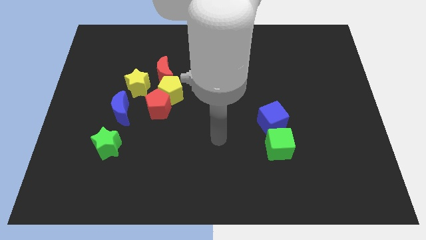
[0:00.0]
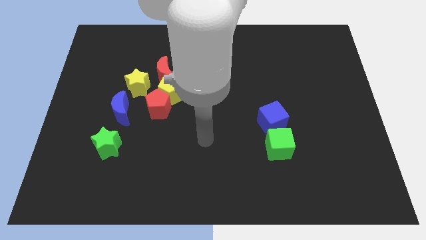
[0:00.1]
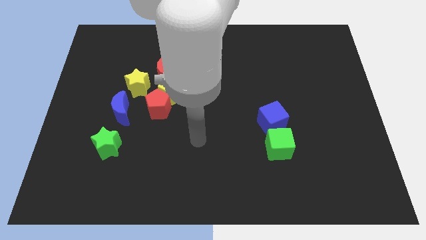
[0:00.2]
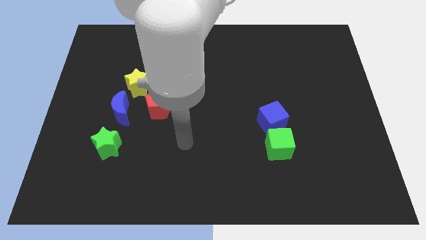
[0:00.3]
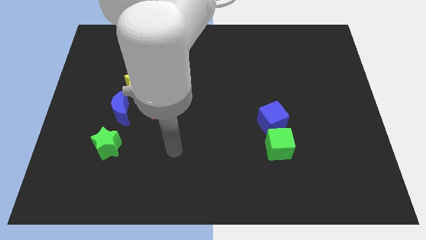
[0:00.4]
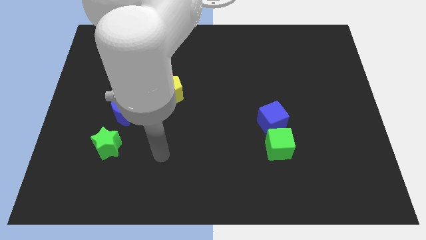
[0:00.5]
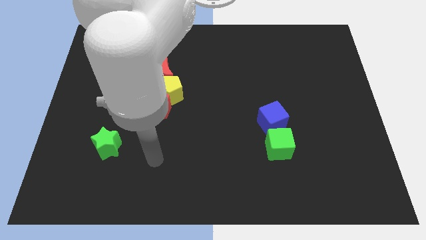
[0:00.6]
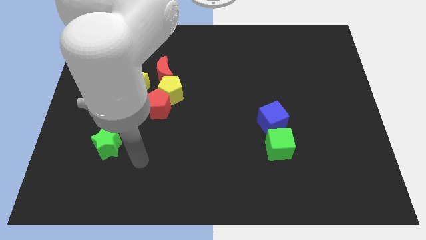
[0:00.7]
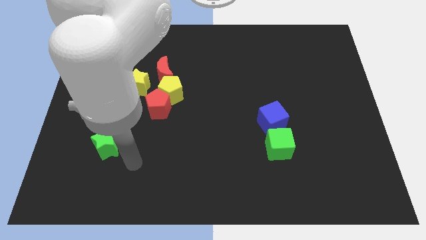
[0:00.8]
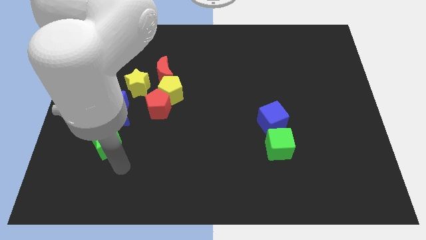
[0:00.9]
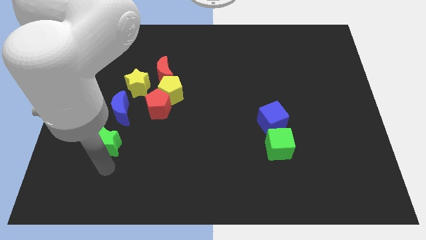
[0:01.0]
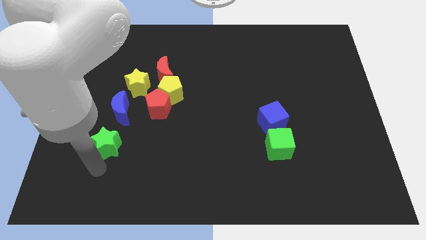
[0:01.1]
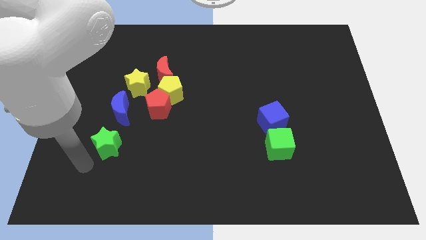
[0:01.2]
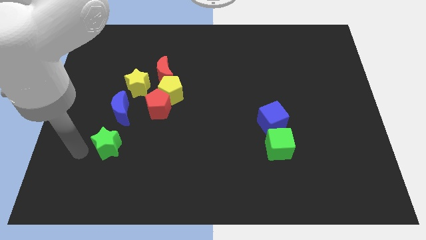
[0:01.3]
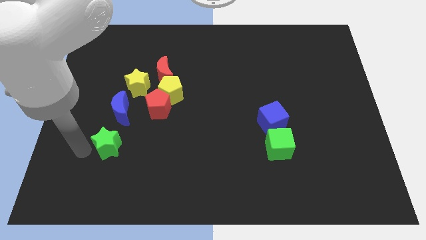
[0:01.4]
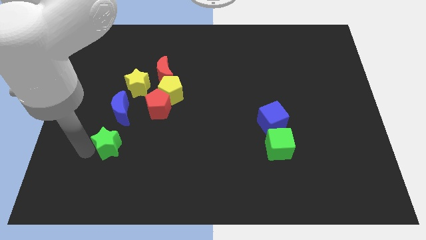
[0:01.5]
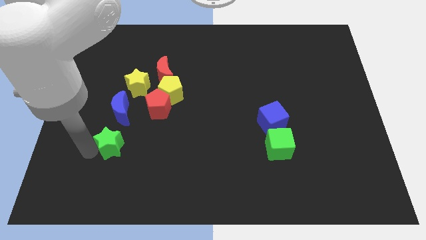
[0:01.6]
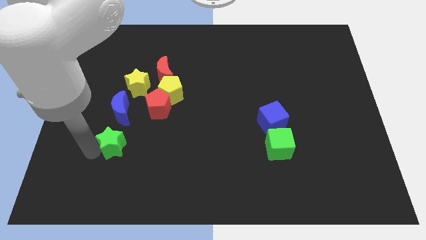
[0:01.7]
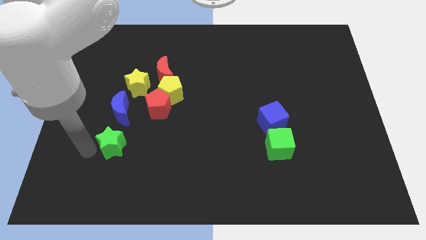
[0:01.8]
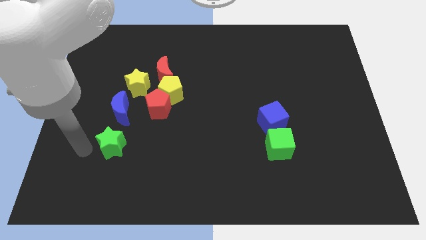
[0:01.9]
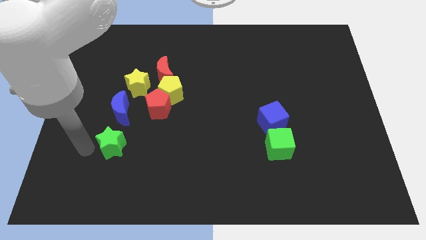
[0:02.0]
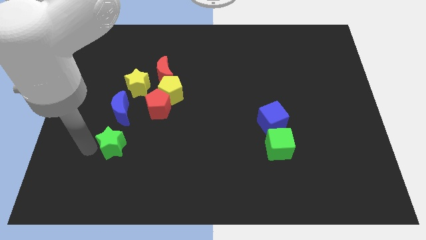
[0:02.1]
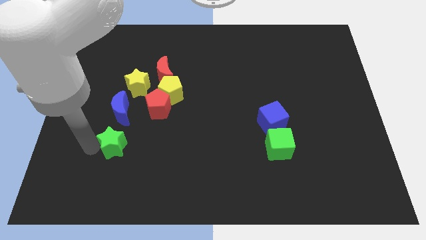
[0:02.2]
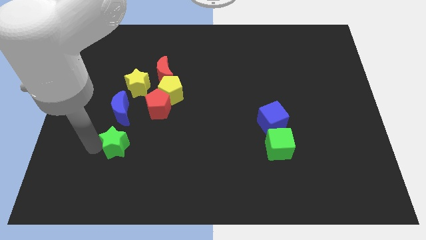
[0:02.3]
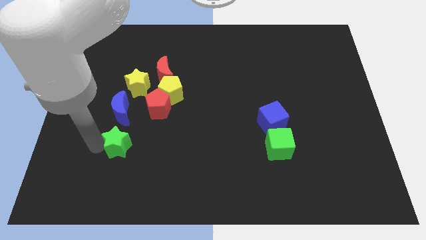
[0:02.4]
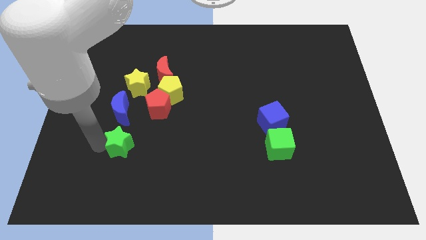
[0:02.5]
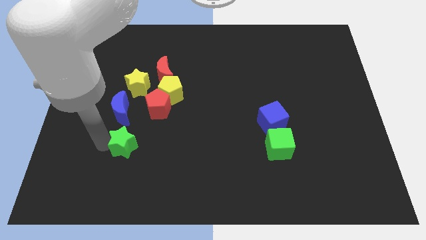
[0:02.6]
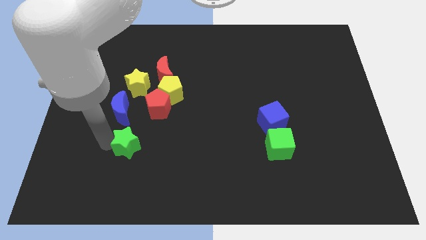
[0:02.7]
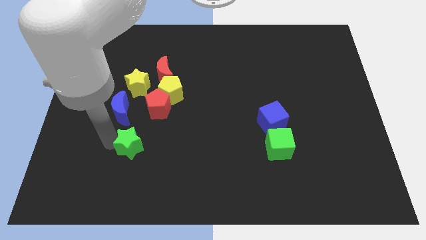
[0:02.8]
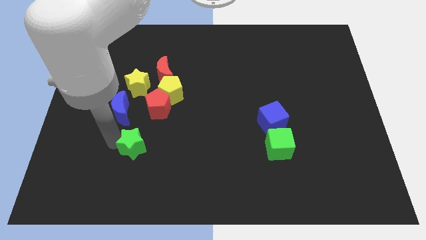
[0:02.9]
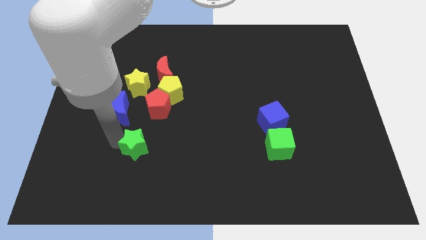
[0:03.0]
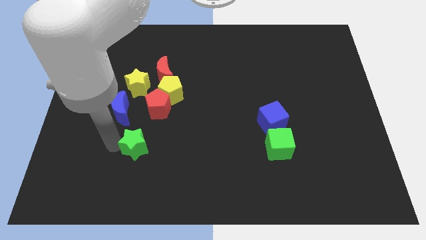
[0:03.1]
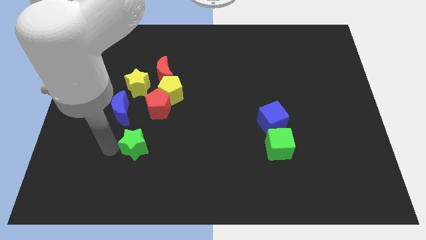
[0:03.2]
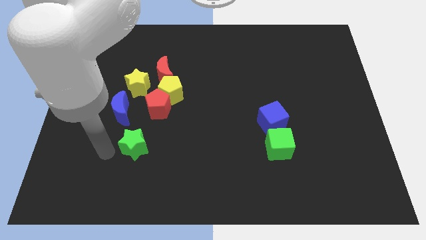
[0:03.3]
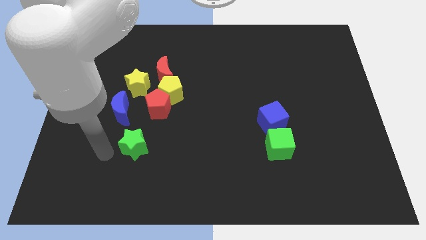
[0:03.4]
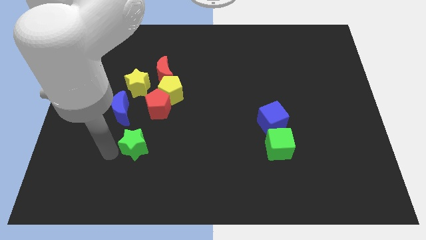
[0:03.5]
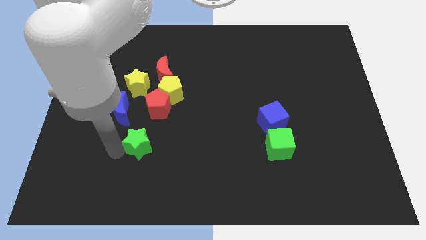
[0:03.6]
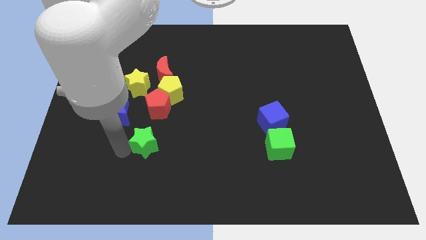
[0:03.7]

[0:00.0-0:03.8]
move the green star a little bit to the right

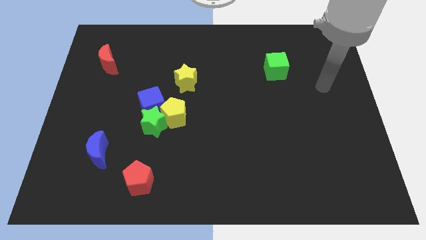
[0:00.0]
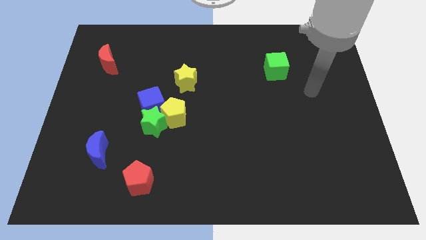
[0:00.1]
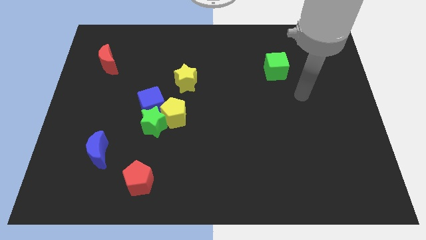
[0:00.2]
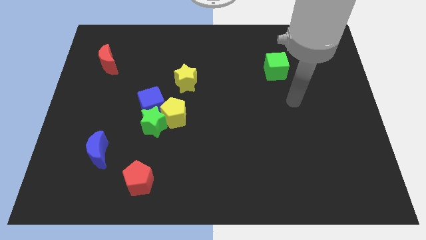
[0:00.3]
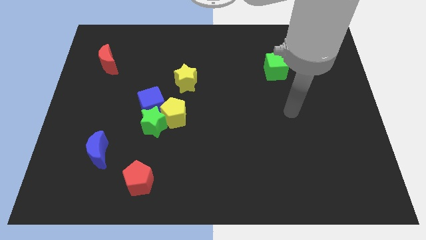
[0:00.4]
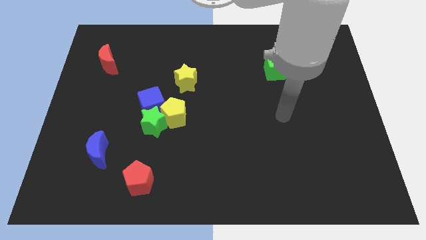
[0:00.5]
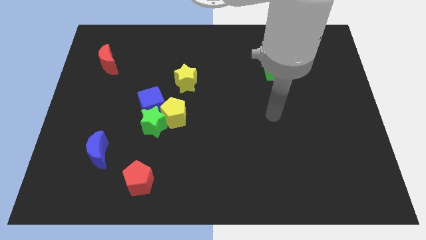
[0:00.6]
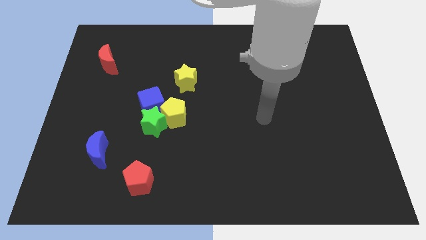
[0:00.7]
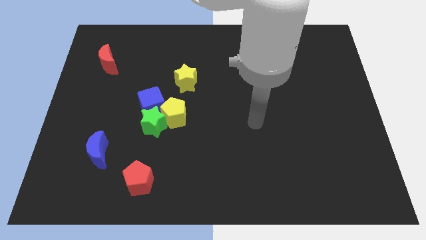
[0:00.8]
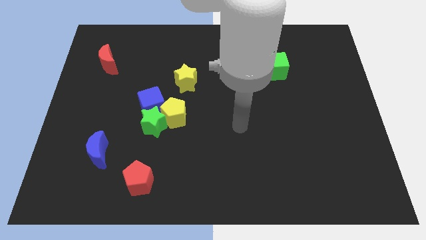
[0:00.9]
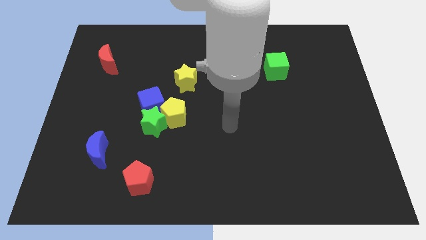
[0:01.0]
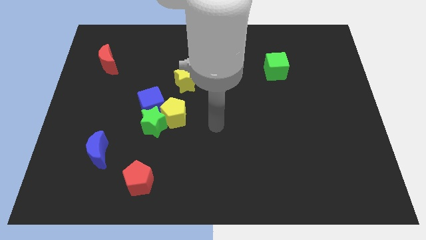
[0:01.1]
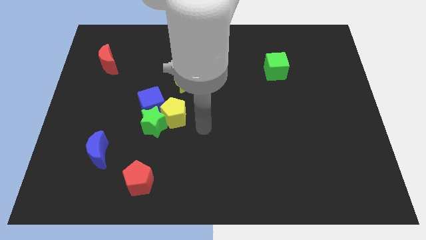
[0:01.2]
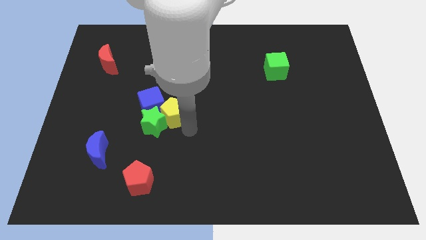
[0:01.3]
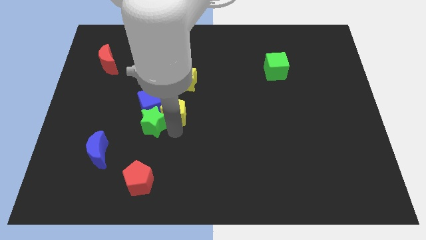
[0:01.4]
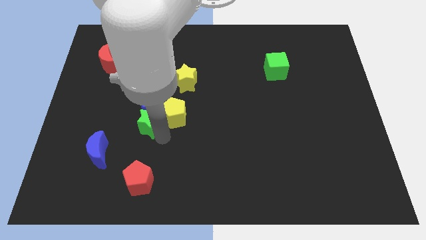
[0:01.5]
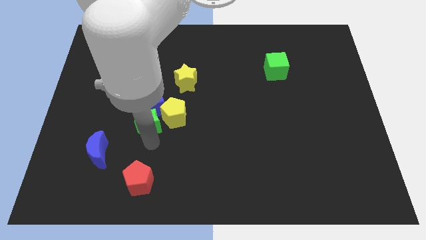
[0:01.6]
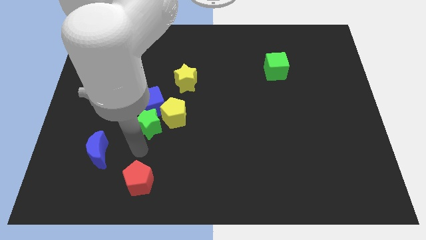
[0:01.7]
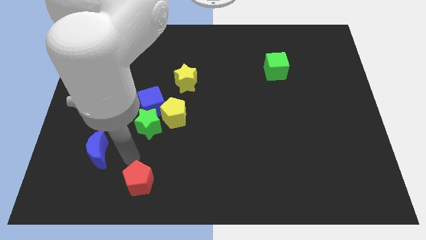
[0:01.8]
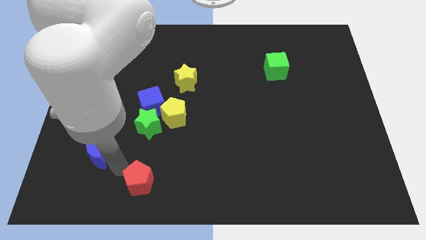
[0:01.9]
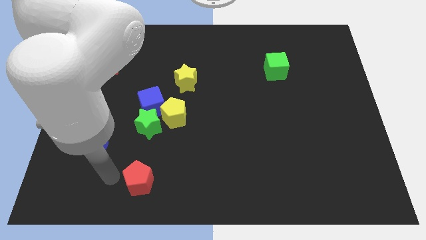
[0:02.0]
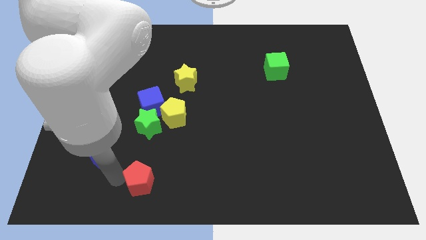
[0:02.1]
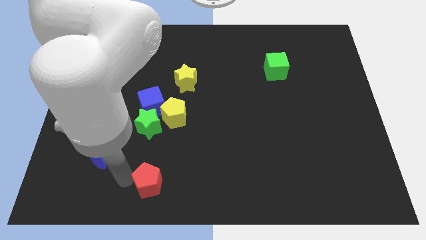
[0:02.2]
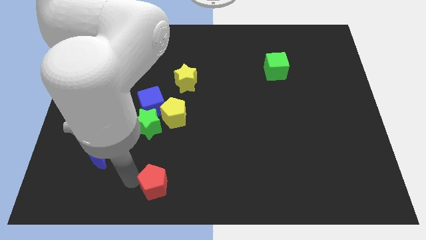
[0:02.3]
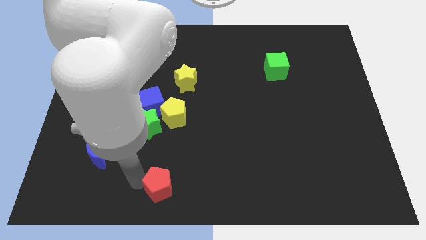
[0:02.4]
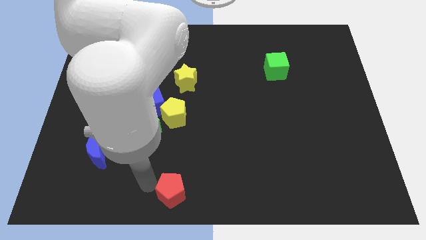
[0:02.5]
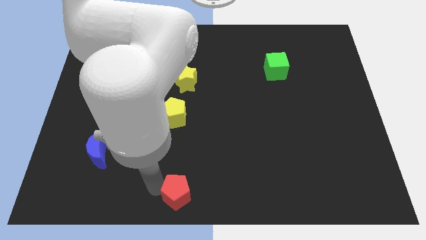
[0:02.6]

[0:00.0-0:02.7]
slide the red pentagon right somewhat

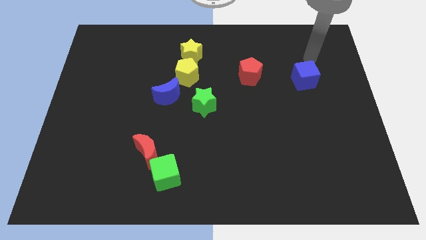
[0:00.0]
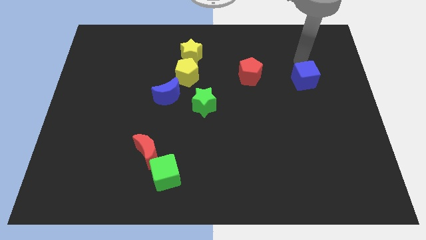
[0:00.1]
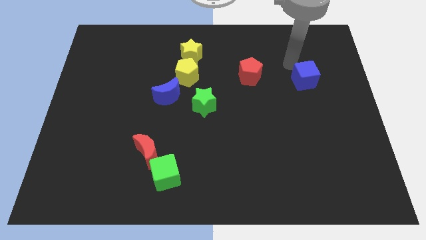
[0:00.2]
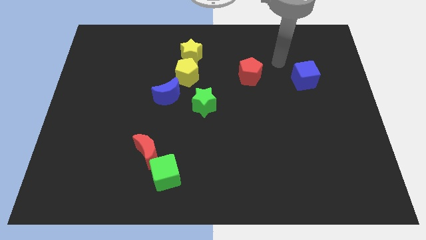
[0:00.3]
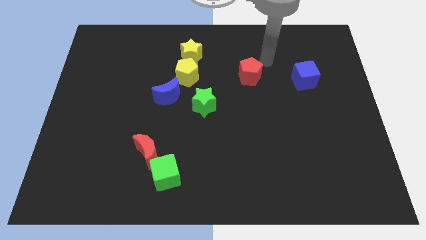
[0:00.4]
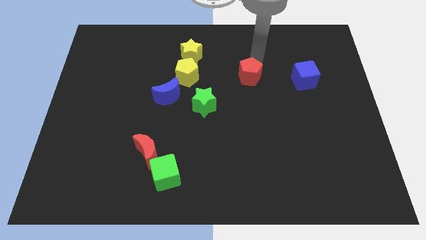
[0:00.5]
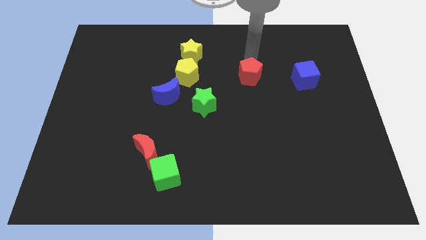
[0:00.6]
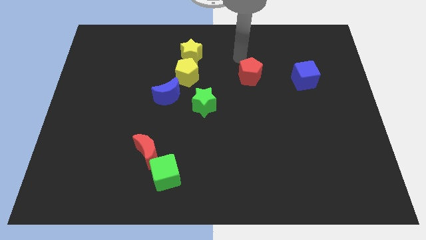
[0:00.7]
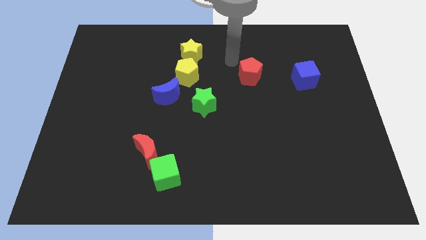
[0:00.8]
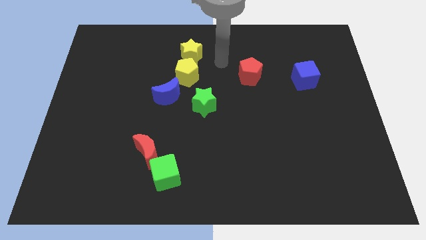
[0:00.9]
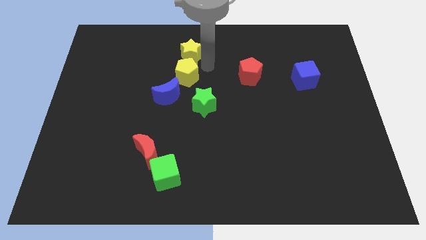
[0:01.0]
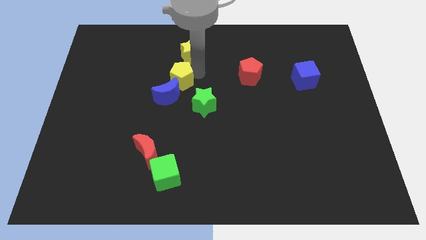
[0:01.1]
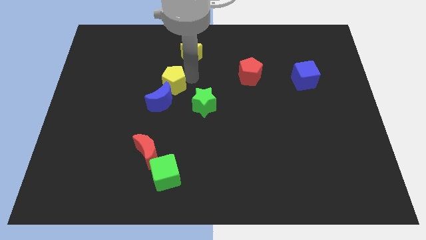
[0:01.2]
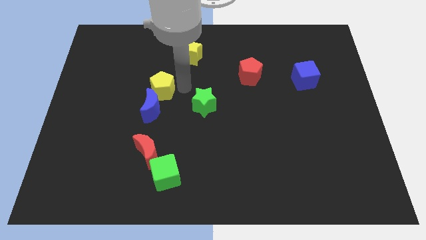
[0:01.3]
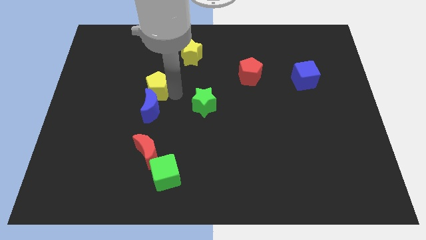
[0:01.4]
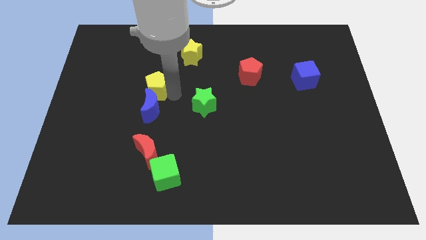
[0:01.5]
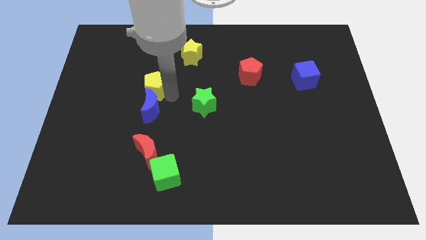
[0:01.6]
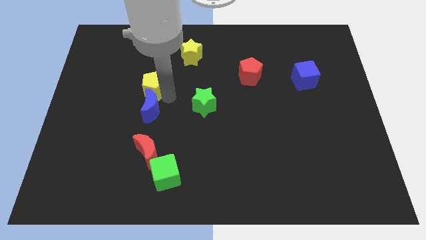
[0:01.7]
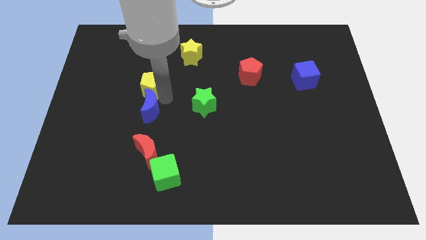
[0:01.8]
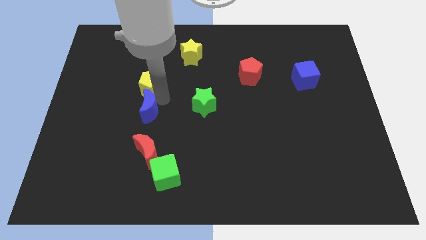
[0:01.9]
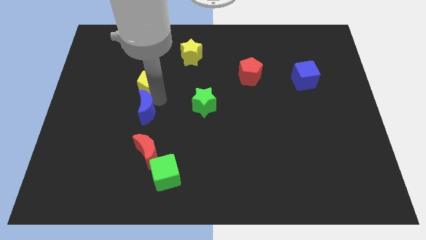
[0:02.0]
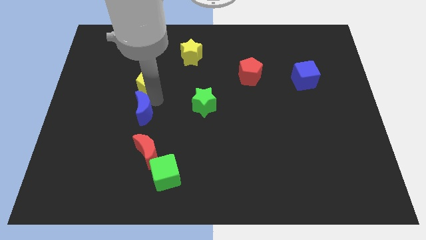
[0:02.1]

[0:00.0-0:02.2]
move the blue moon a little down and left
